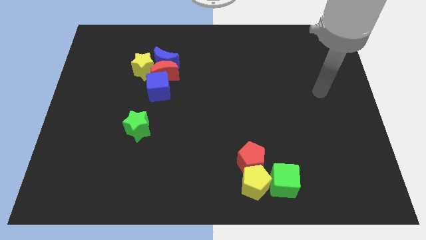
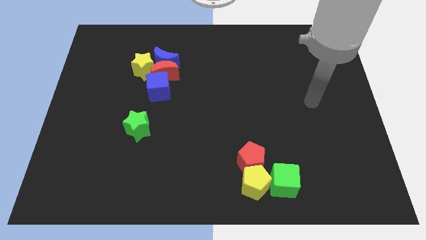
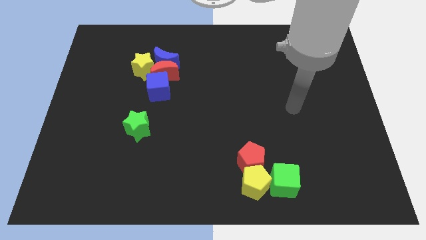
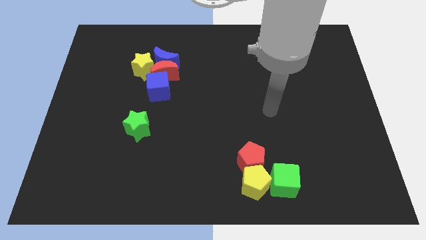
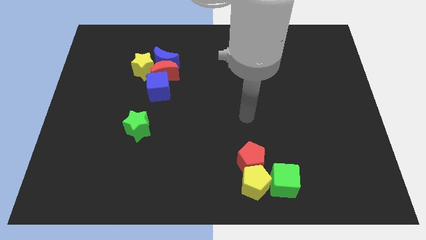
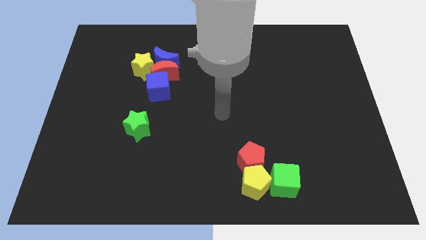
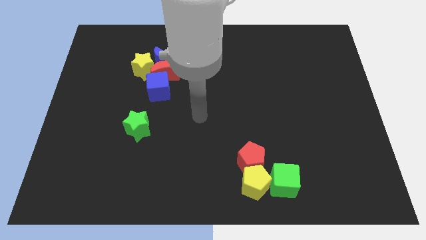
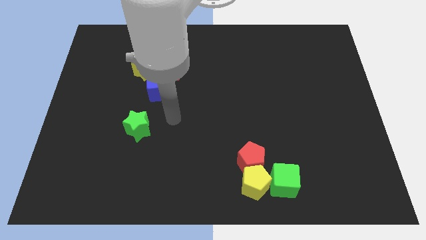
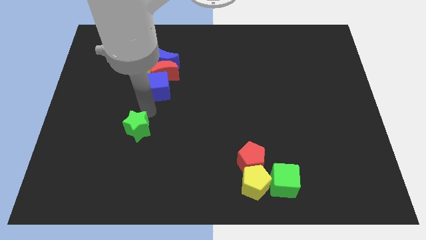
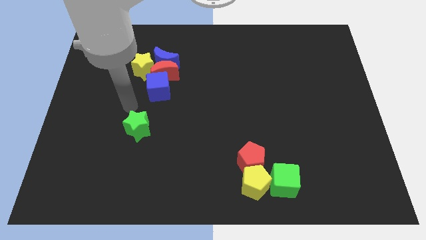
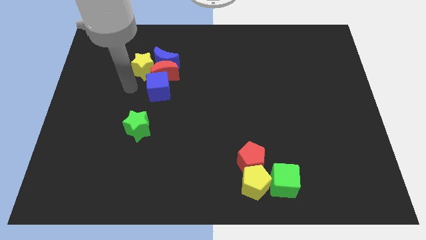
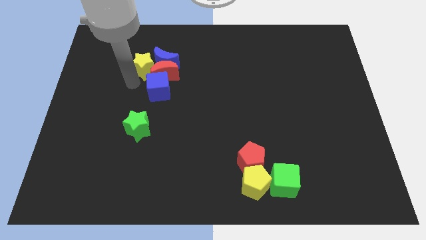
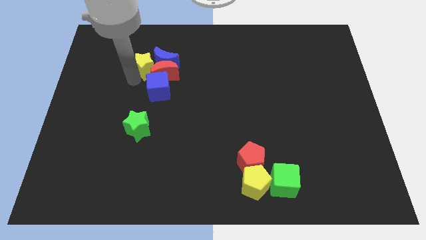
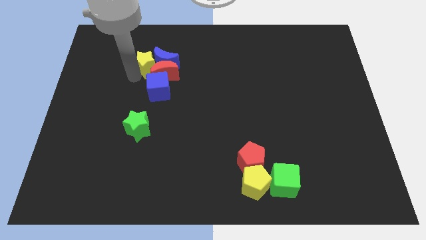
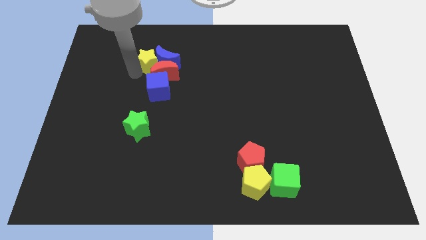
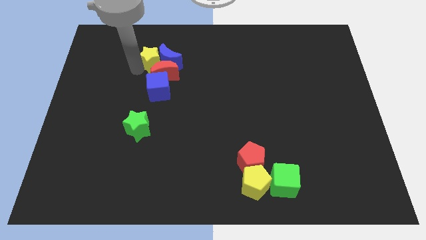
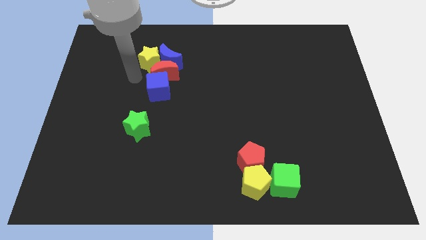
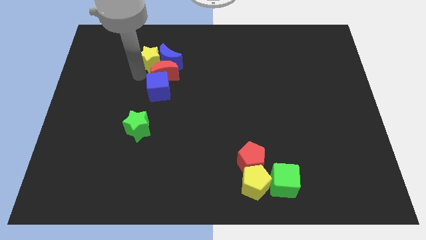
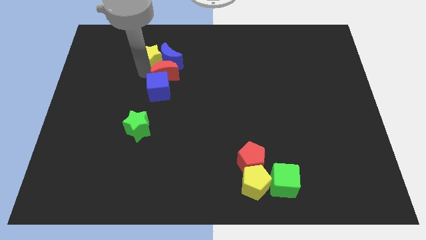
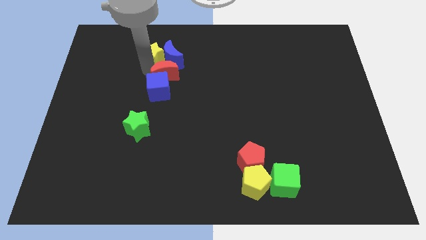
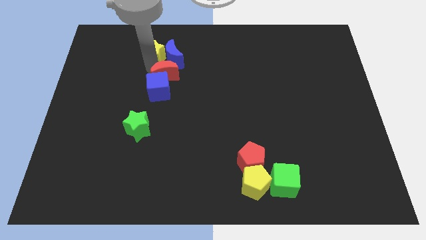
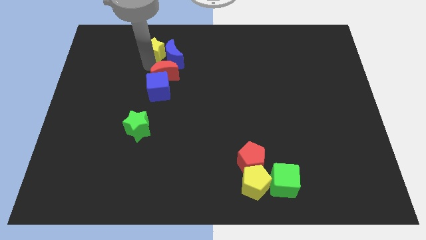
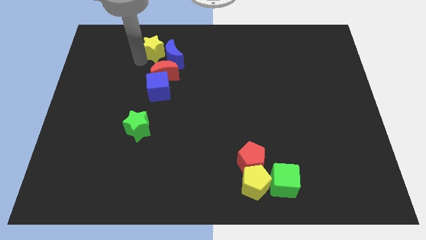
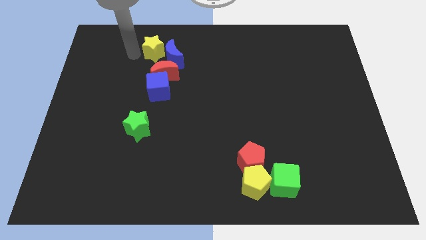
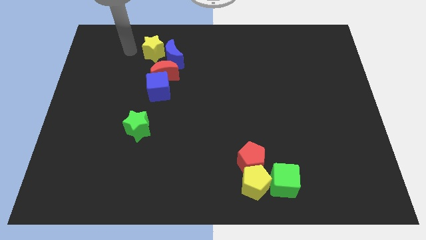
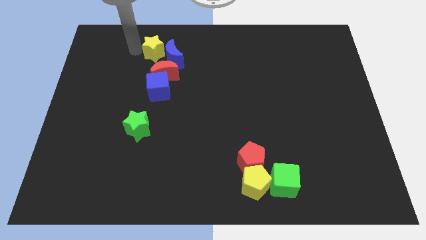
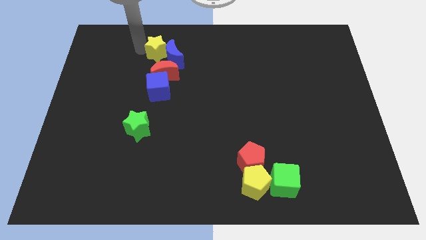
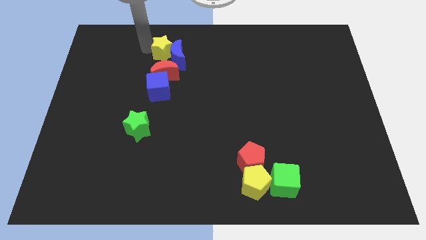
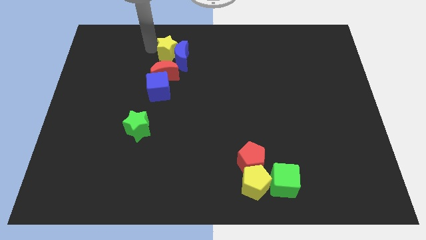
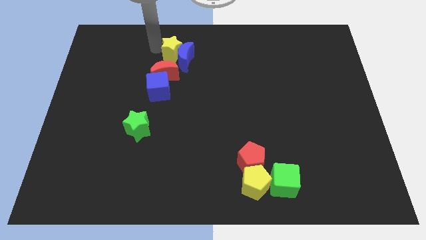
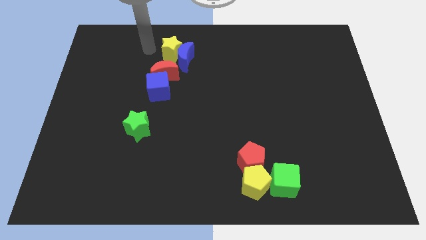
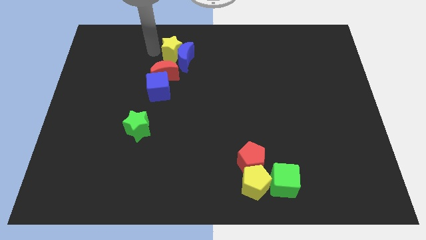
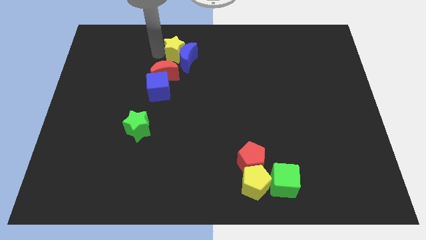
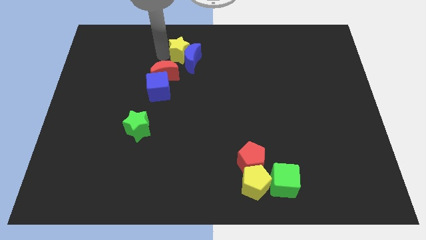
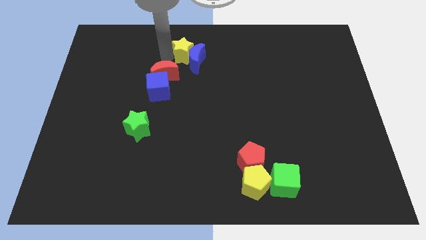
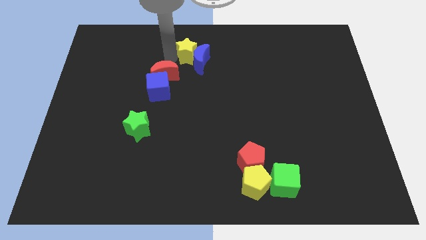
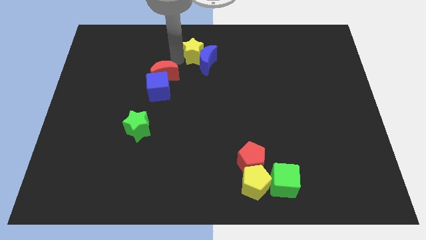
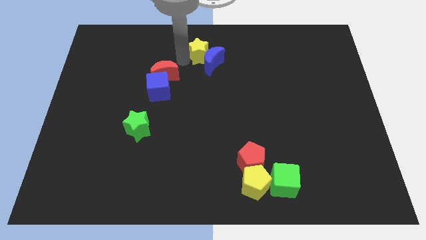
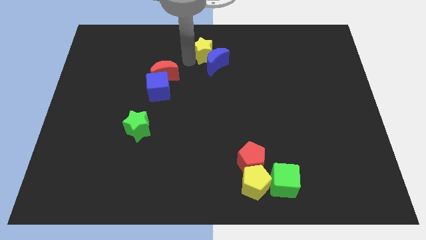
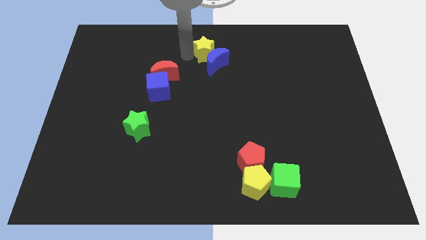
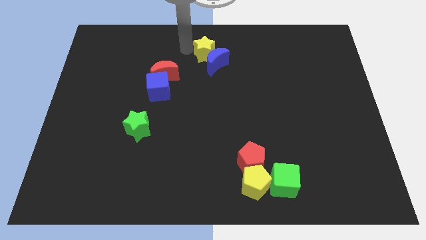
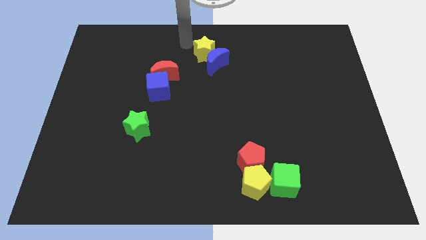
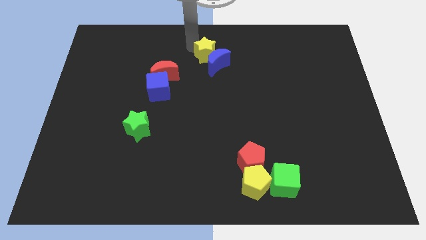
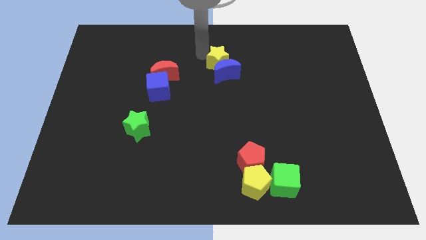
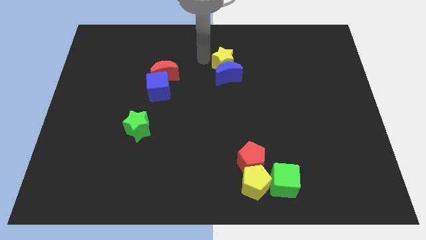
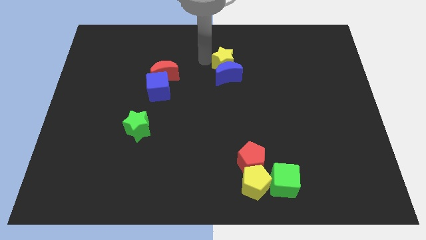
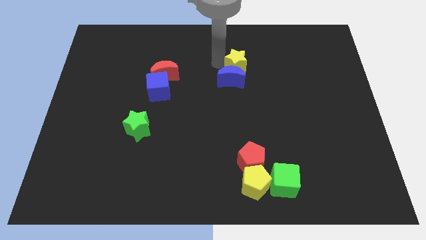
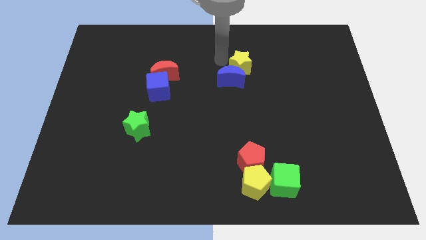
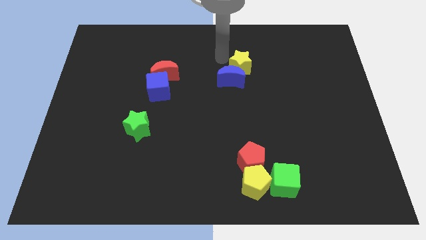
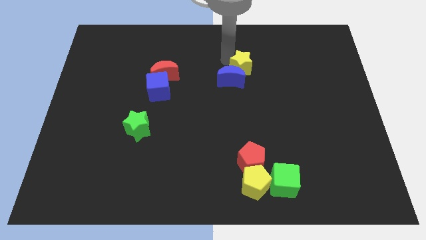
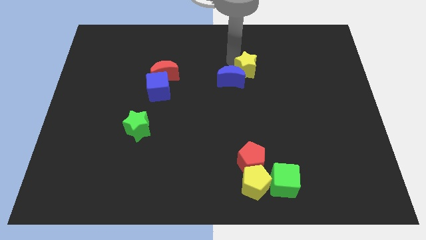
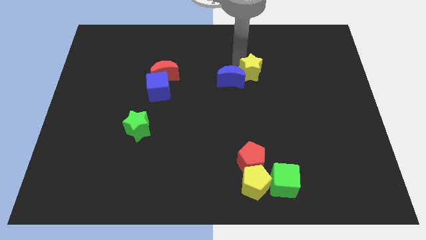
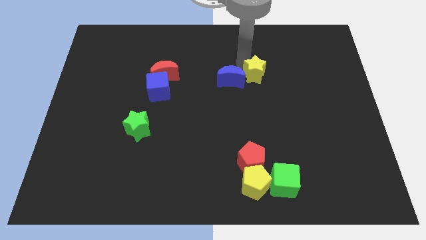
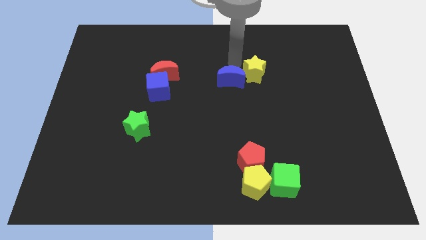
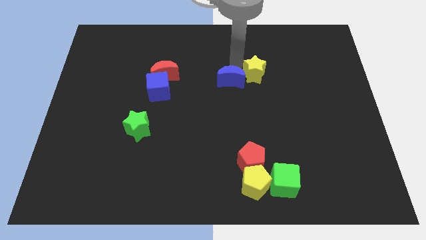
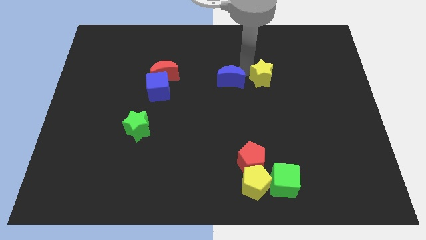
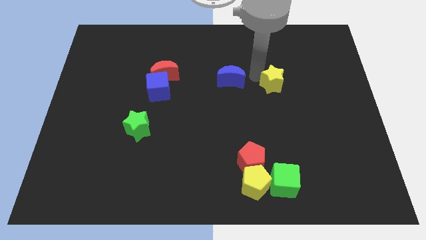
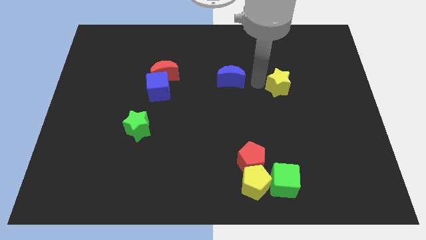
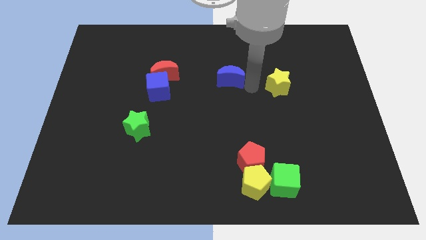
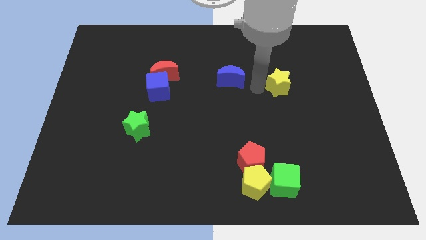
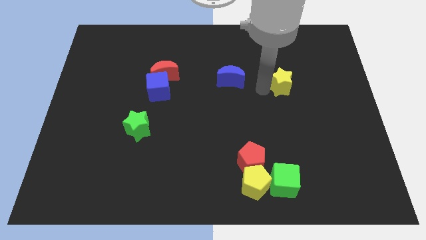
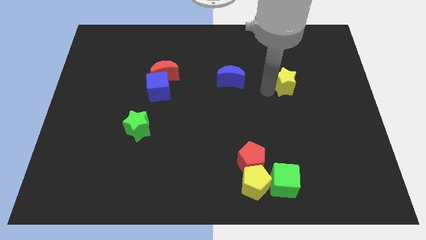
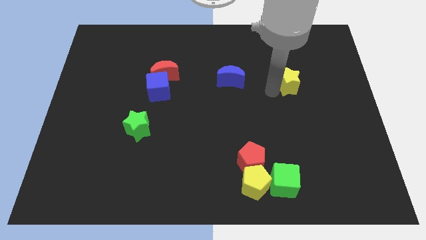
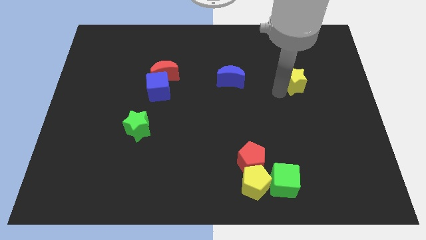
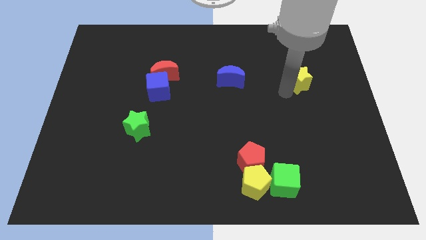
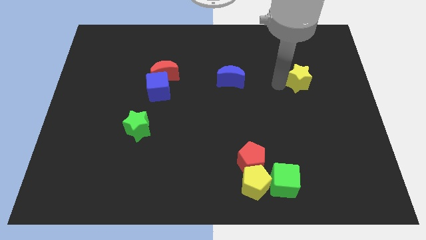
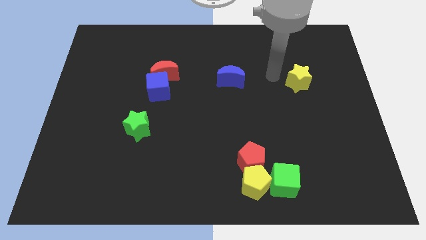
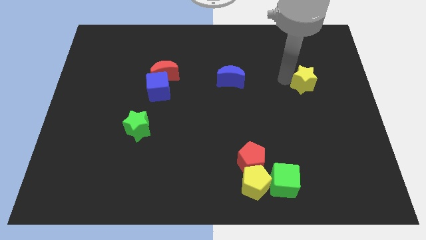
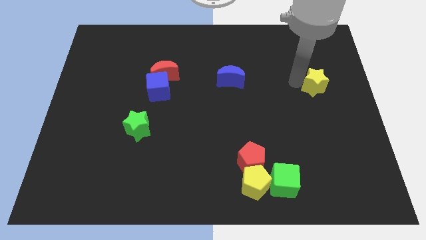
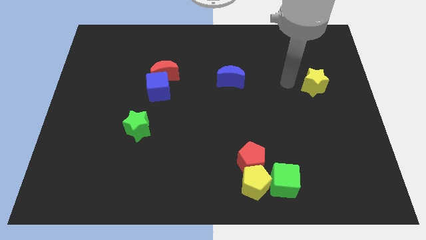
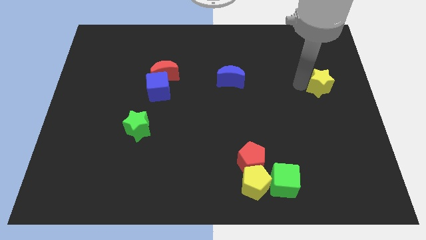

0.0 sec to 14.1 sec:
put the yellow star to the right side of the board
